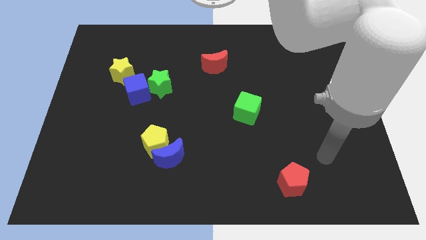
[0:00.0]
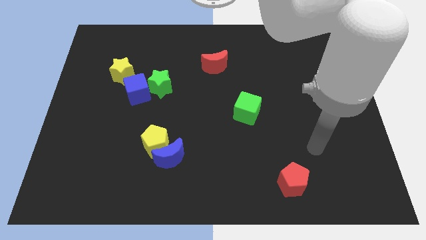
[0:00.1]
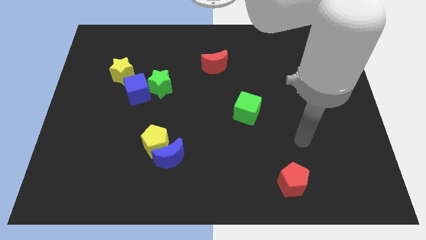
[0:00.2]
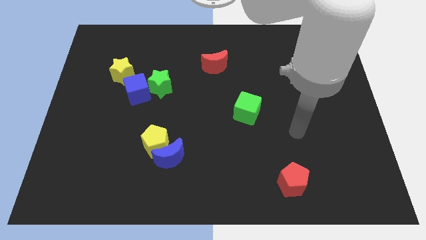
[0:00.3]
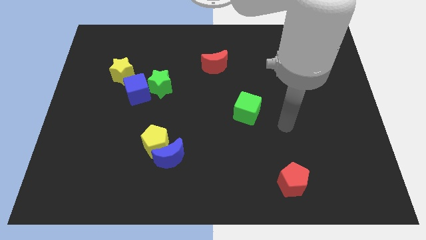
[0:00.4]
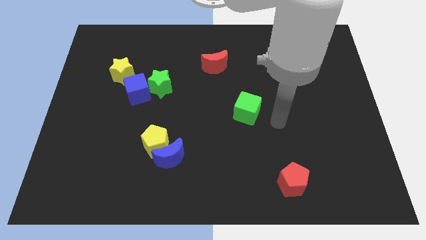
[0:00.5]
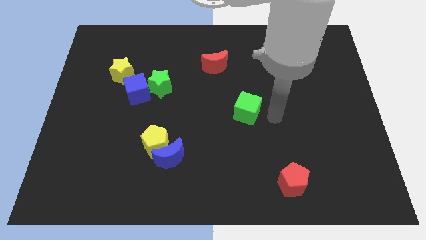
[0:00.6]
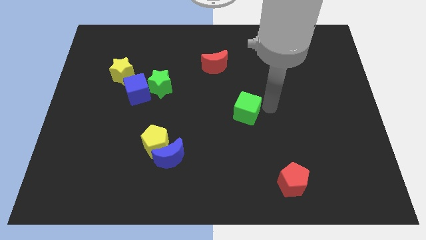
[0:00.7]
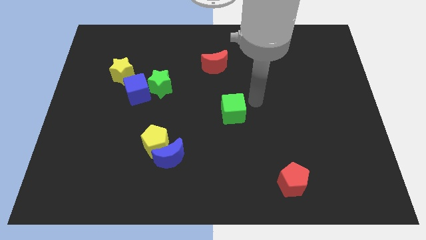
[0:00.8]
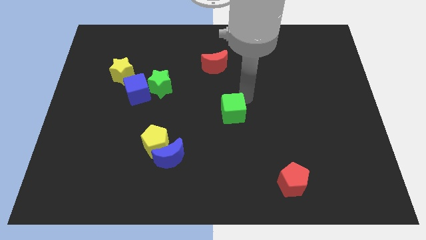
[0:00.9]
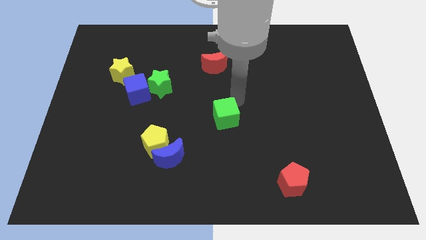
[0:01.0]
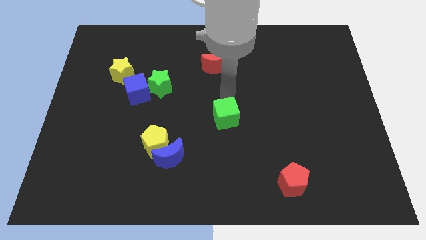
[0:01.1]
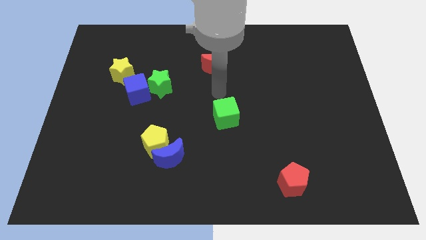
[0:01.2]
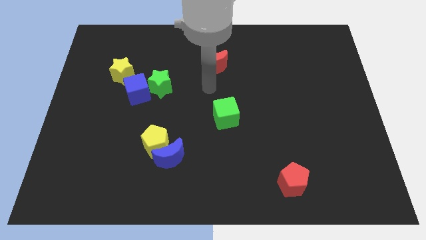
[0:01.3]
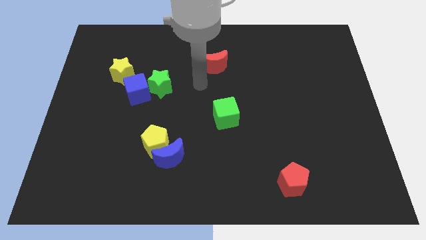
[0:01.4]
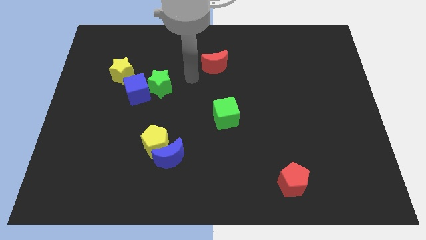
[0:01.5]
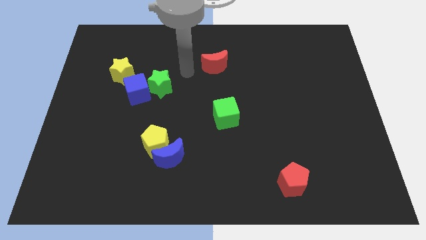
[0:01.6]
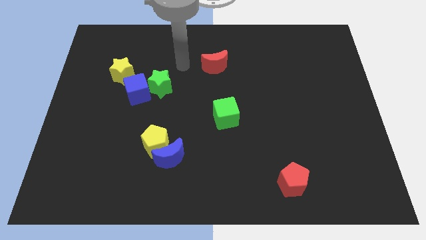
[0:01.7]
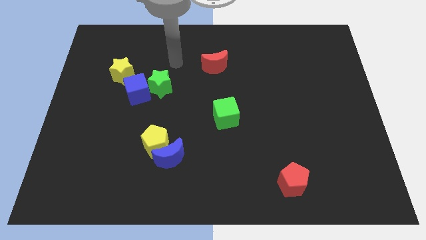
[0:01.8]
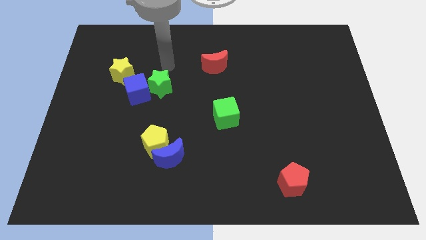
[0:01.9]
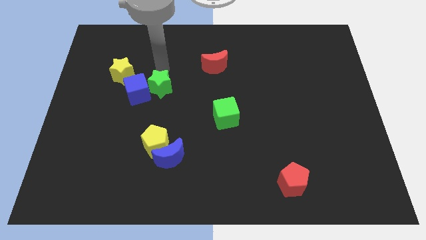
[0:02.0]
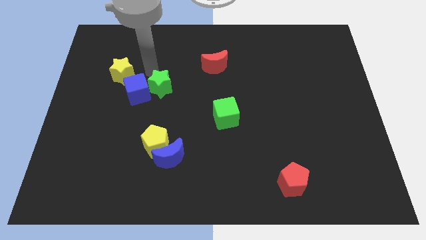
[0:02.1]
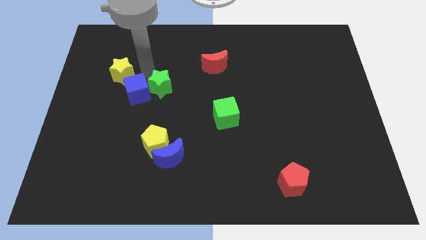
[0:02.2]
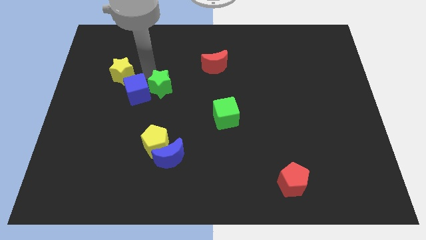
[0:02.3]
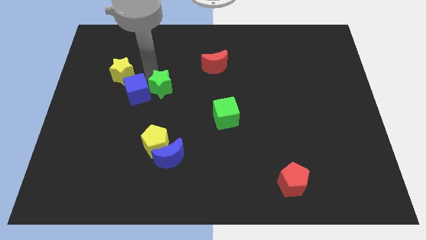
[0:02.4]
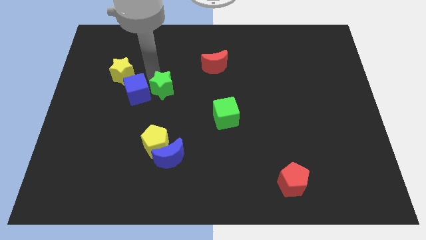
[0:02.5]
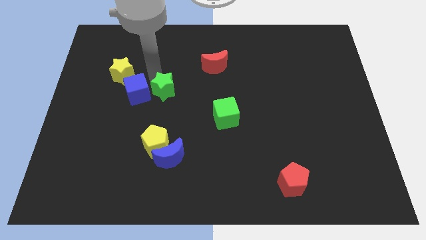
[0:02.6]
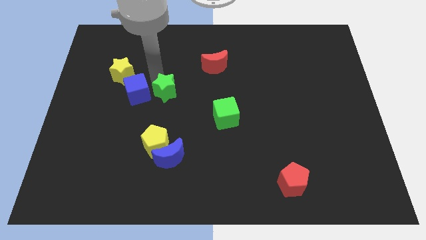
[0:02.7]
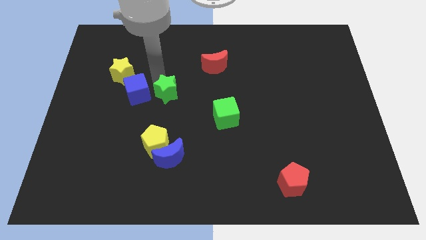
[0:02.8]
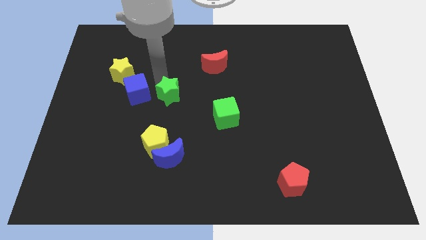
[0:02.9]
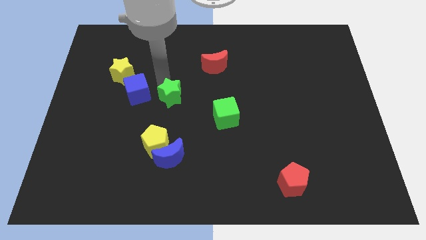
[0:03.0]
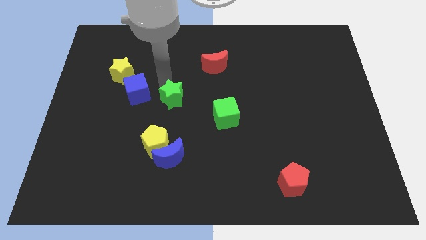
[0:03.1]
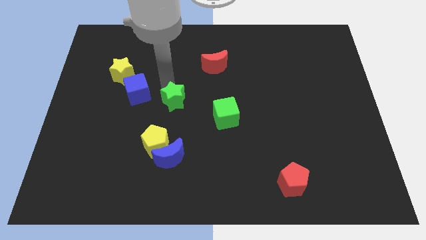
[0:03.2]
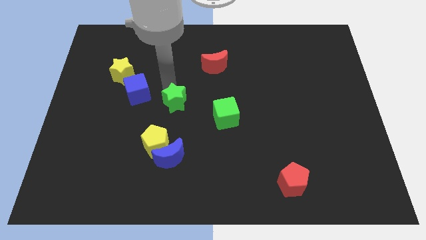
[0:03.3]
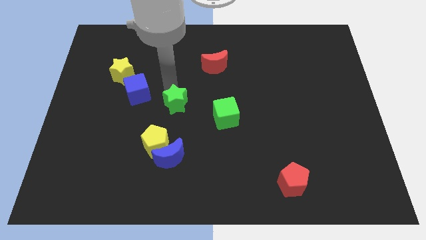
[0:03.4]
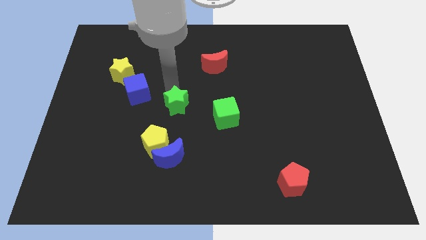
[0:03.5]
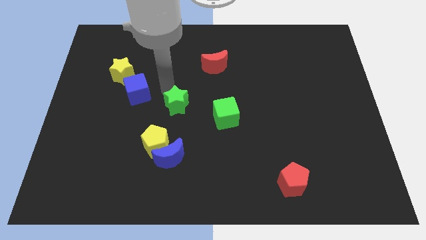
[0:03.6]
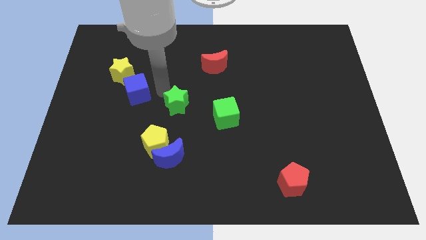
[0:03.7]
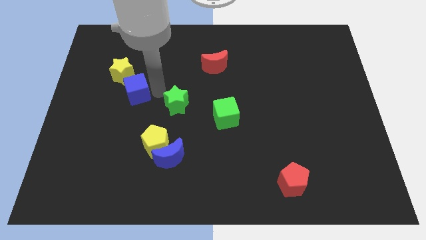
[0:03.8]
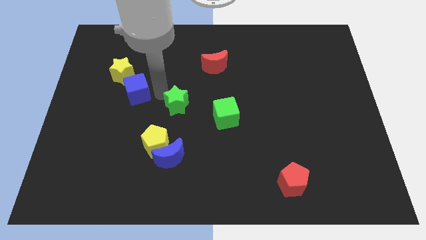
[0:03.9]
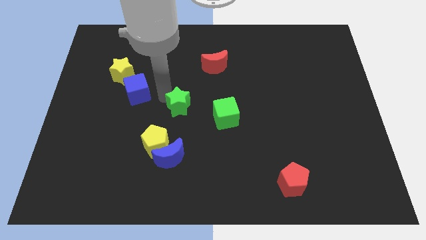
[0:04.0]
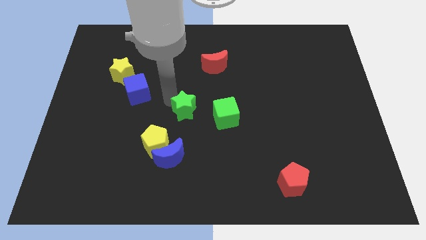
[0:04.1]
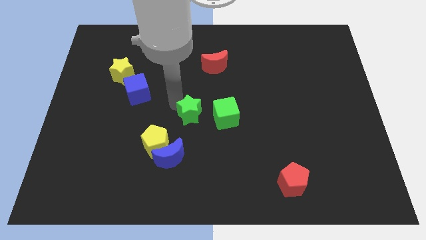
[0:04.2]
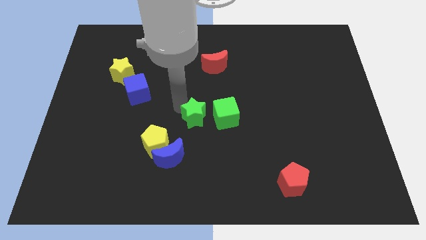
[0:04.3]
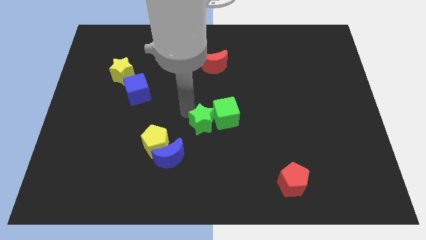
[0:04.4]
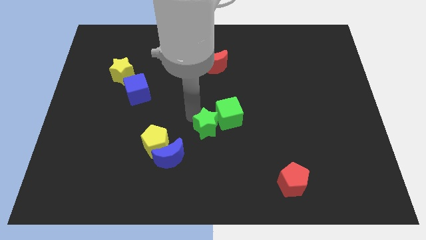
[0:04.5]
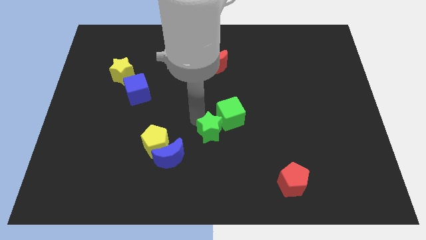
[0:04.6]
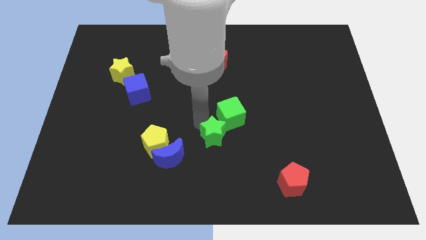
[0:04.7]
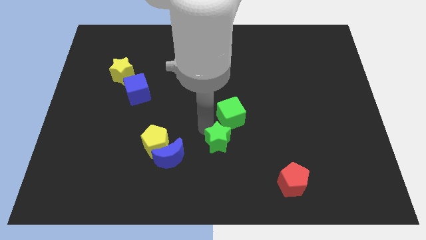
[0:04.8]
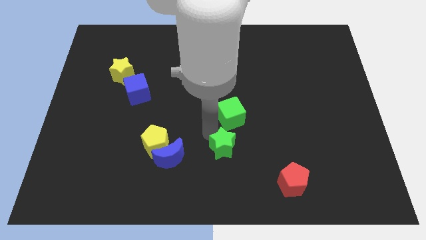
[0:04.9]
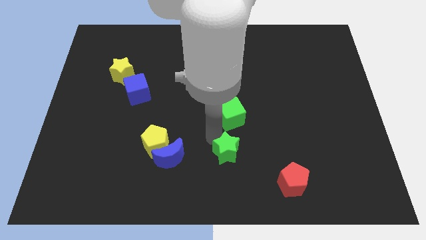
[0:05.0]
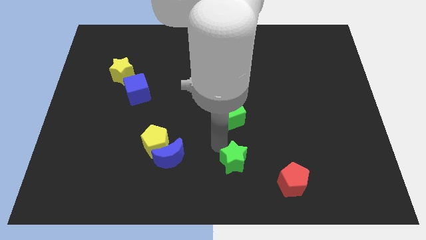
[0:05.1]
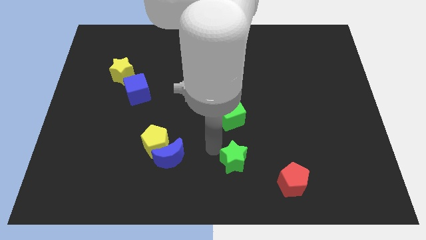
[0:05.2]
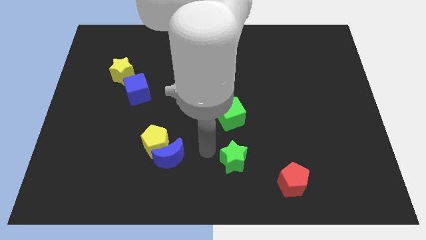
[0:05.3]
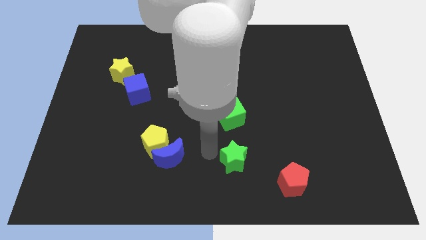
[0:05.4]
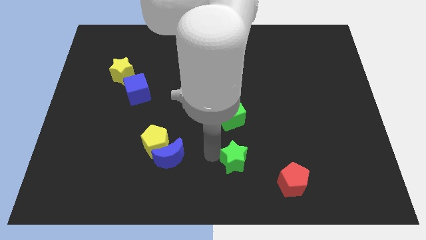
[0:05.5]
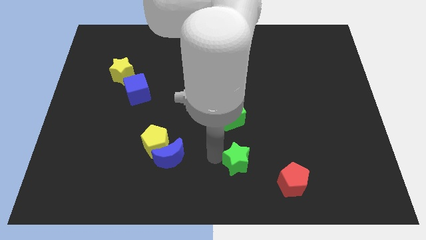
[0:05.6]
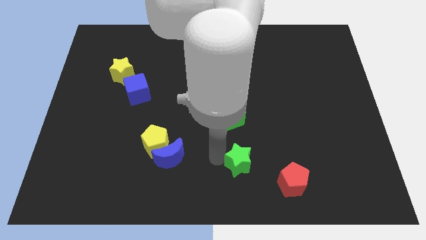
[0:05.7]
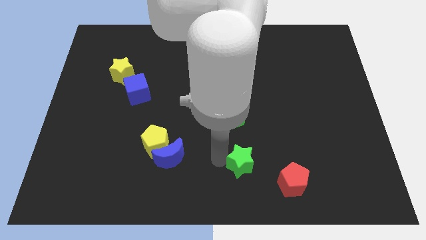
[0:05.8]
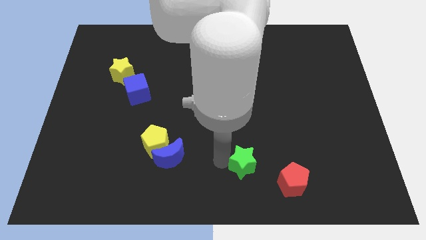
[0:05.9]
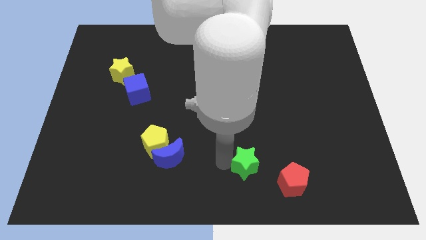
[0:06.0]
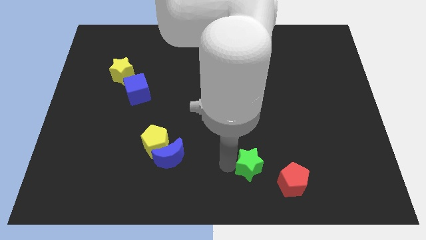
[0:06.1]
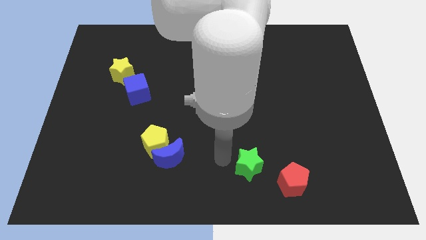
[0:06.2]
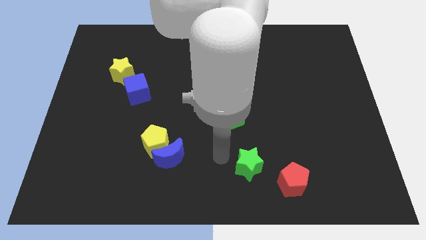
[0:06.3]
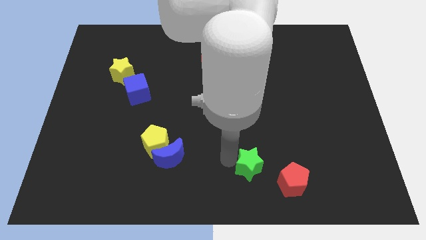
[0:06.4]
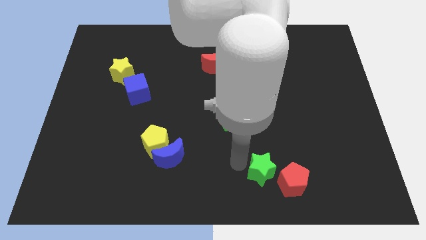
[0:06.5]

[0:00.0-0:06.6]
push the green star to the red pentagon

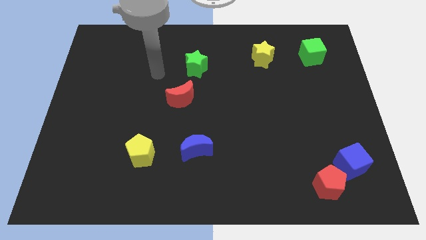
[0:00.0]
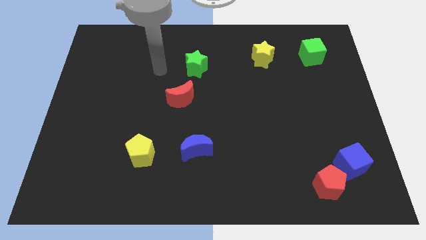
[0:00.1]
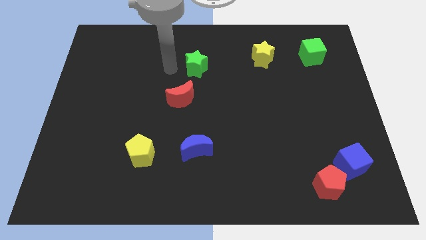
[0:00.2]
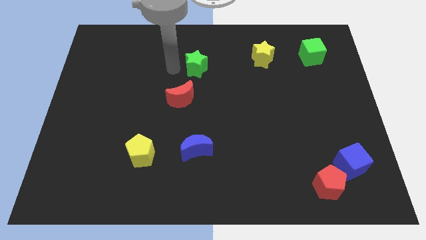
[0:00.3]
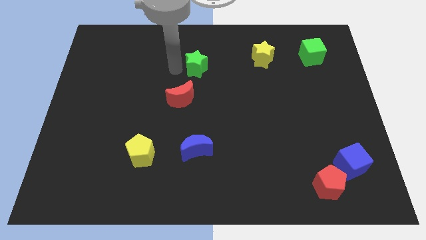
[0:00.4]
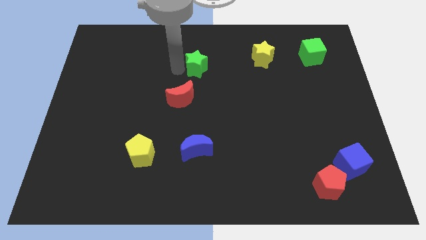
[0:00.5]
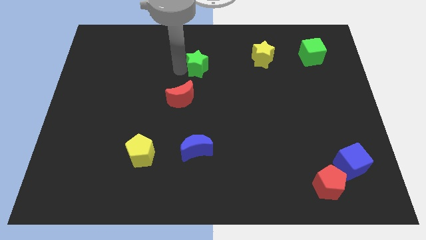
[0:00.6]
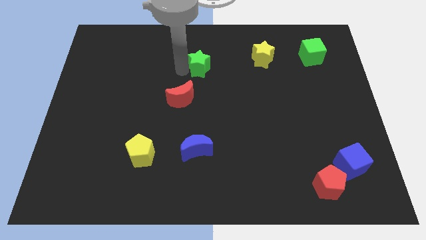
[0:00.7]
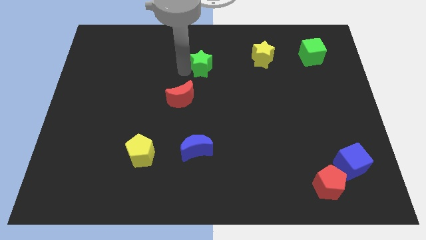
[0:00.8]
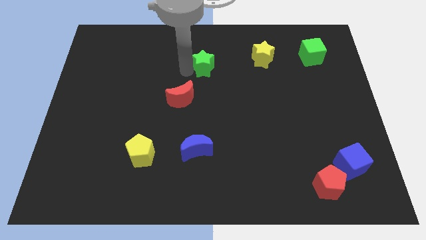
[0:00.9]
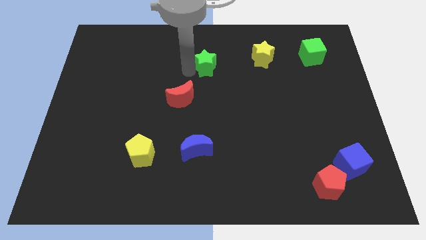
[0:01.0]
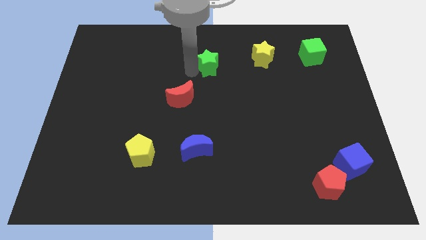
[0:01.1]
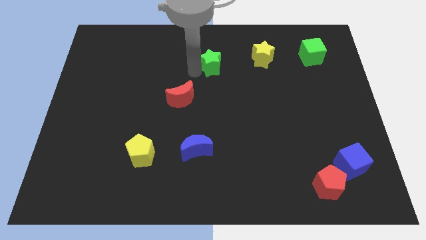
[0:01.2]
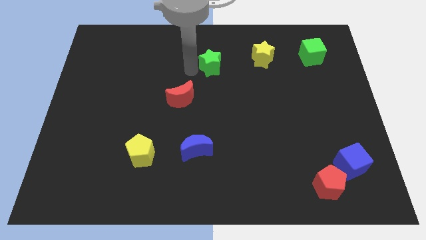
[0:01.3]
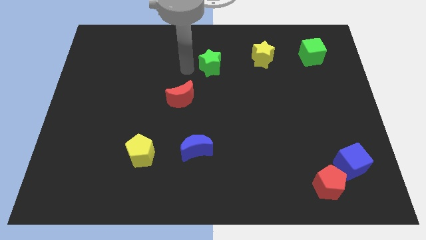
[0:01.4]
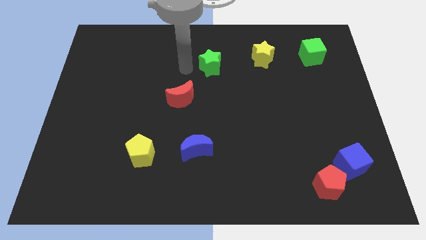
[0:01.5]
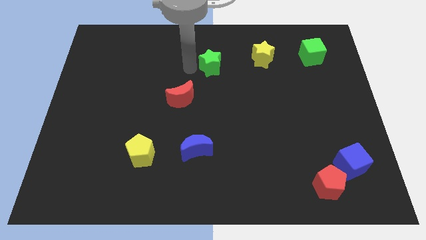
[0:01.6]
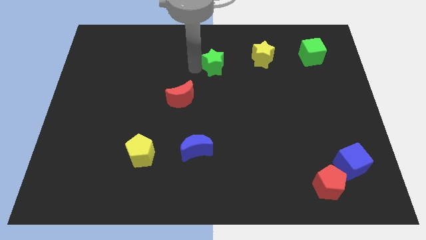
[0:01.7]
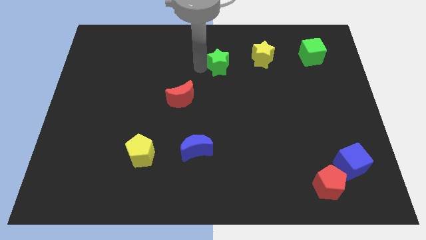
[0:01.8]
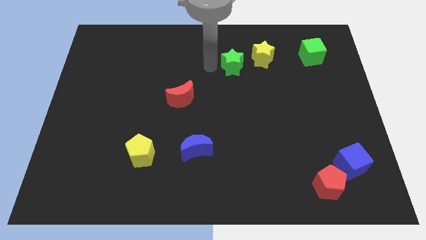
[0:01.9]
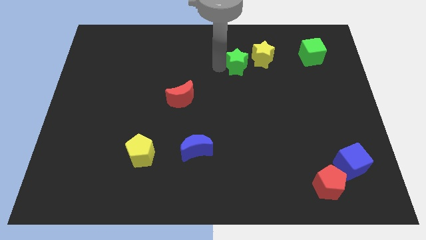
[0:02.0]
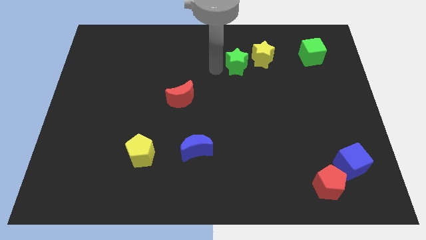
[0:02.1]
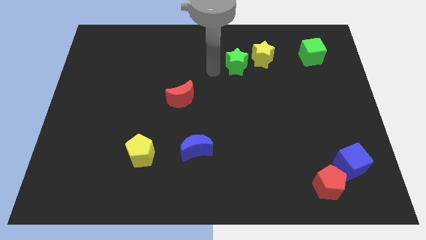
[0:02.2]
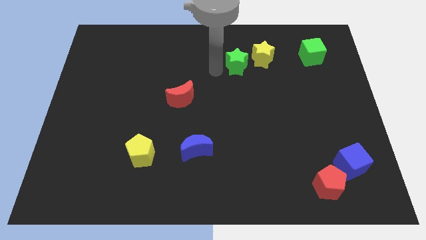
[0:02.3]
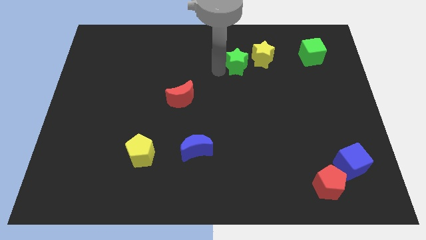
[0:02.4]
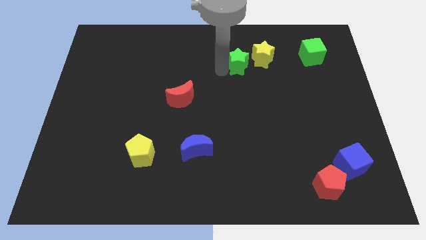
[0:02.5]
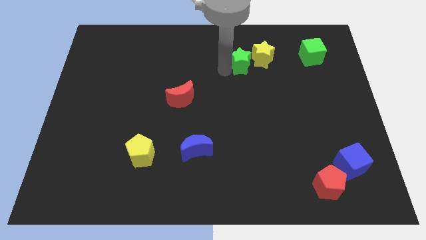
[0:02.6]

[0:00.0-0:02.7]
put the green star next to the yellow star
